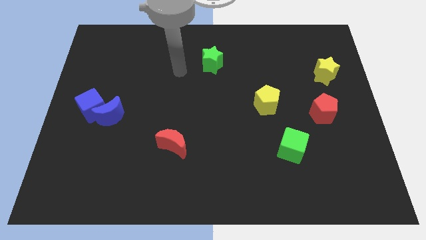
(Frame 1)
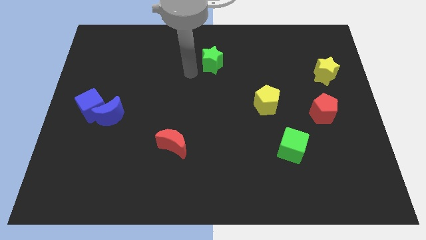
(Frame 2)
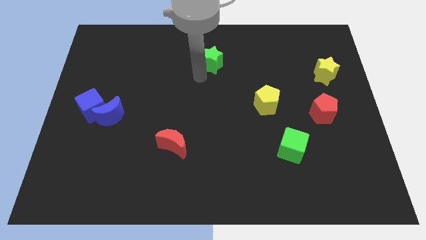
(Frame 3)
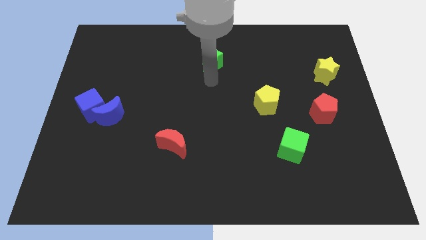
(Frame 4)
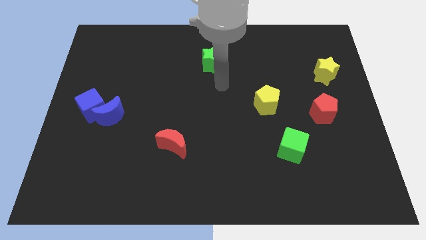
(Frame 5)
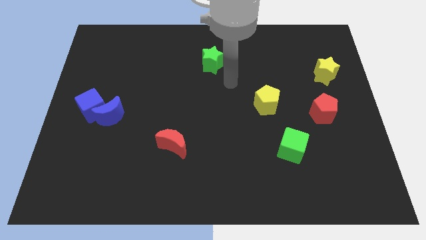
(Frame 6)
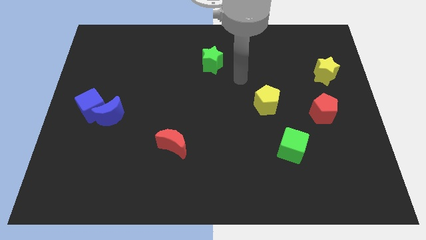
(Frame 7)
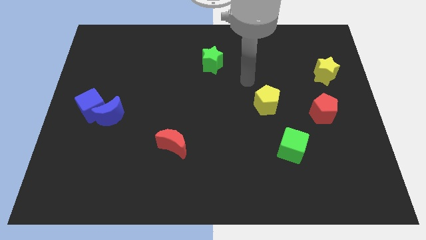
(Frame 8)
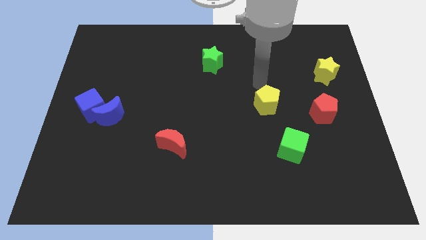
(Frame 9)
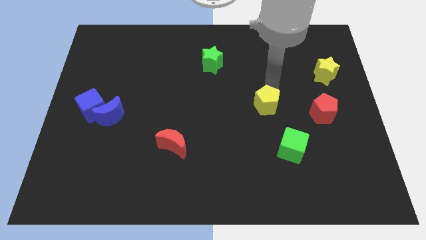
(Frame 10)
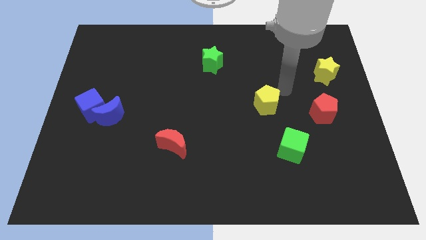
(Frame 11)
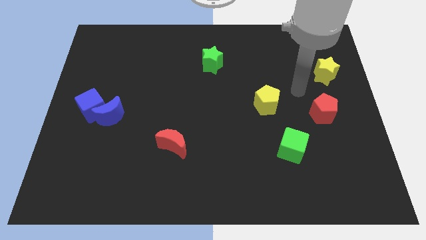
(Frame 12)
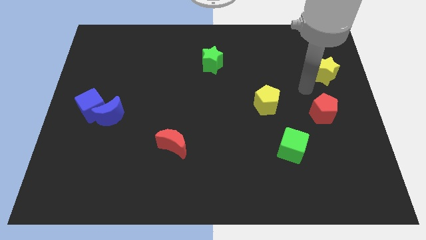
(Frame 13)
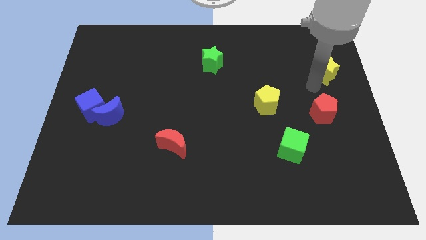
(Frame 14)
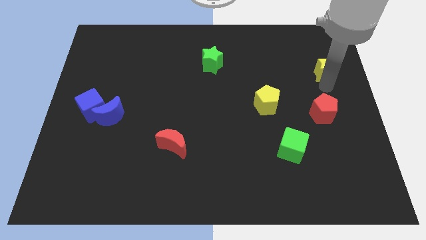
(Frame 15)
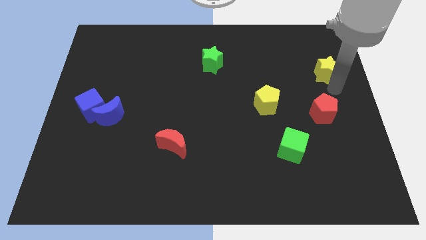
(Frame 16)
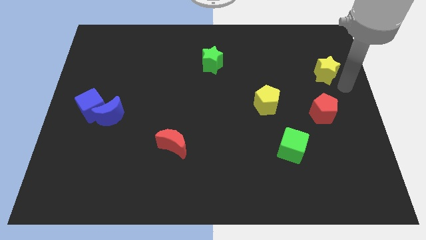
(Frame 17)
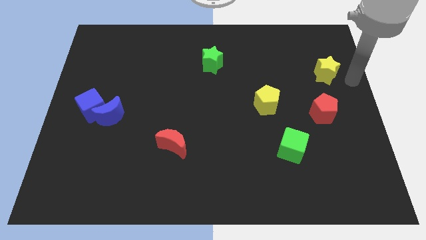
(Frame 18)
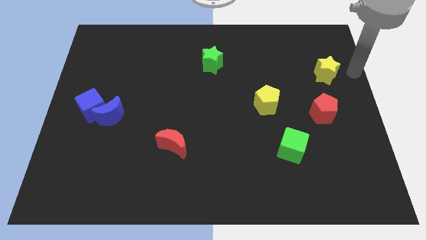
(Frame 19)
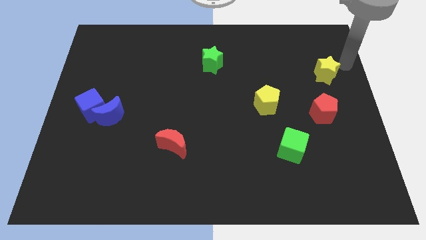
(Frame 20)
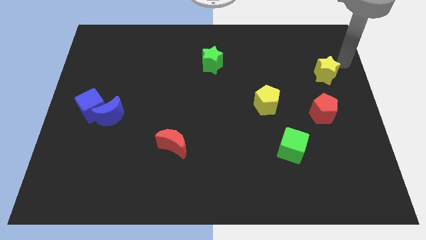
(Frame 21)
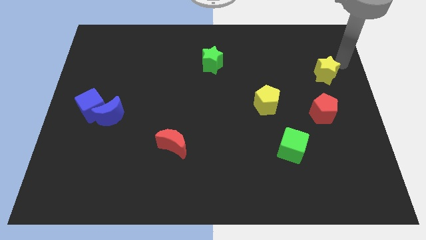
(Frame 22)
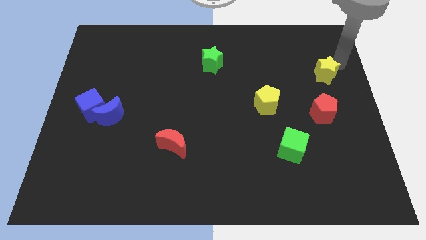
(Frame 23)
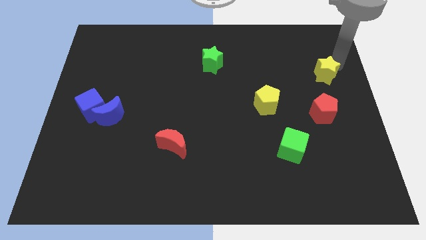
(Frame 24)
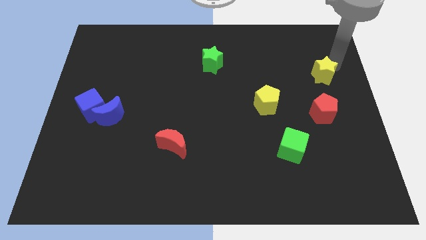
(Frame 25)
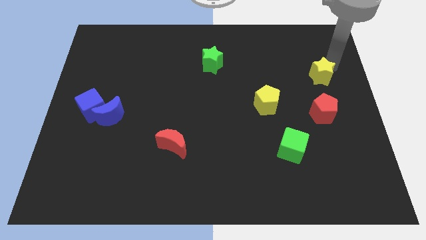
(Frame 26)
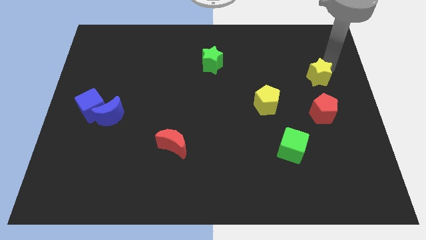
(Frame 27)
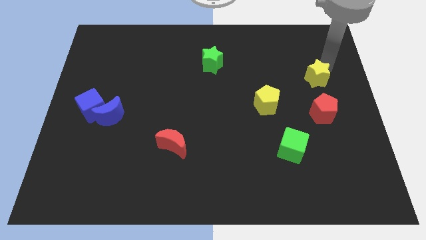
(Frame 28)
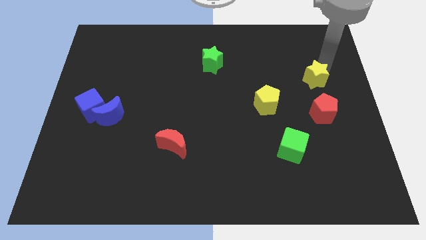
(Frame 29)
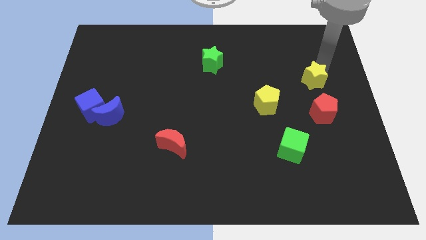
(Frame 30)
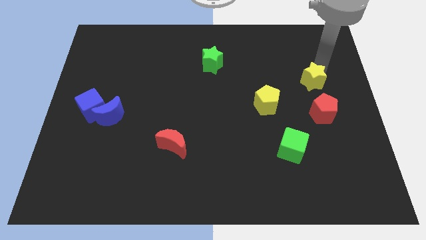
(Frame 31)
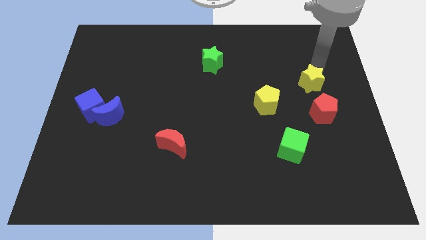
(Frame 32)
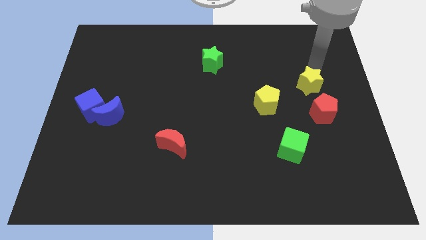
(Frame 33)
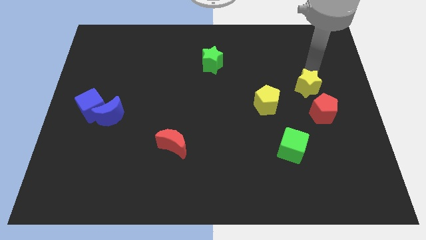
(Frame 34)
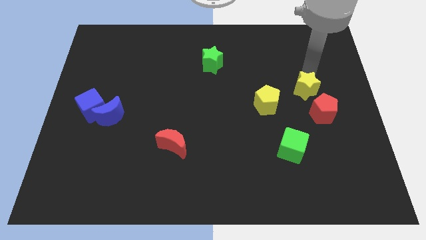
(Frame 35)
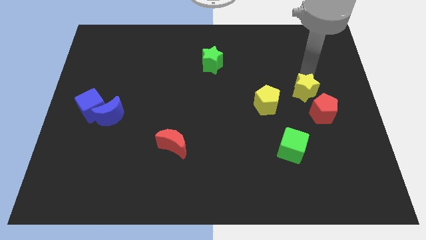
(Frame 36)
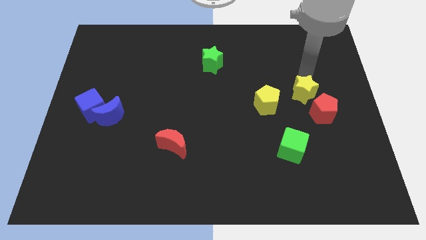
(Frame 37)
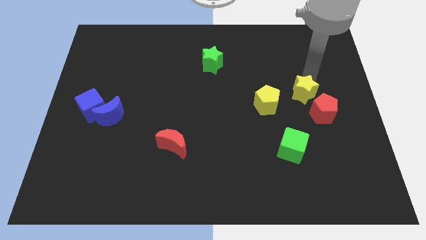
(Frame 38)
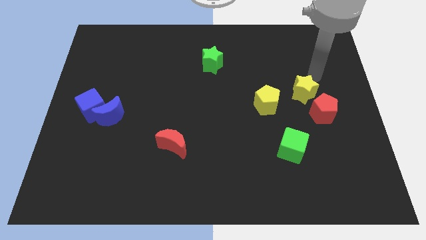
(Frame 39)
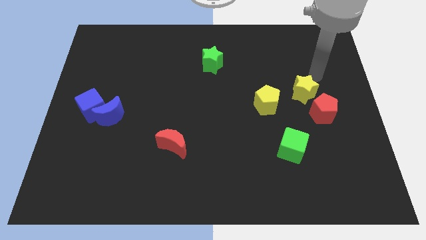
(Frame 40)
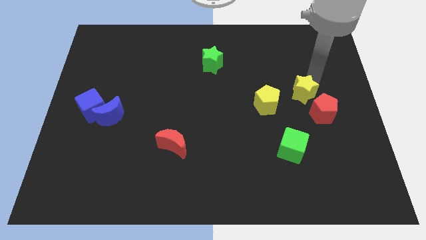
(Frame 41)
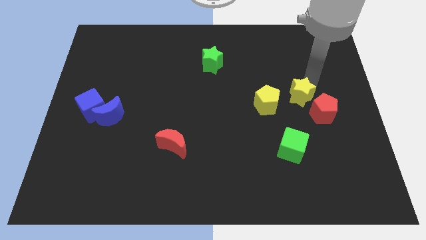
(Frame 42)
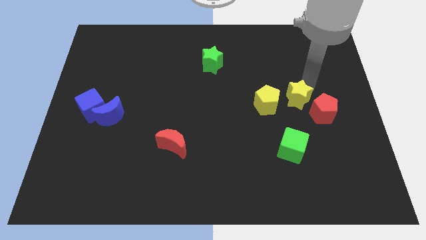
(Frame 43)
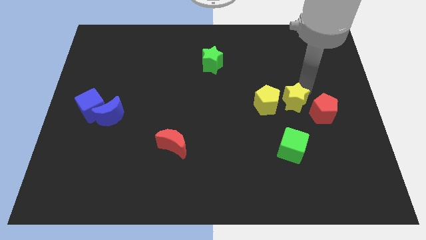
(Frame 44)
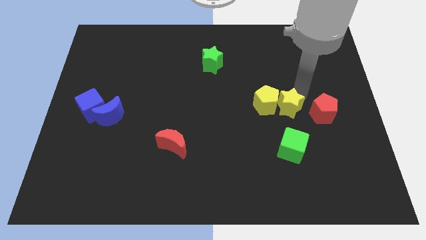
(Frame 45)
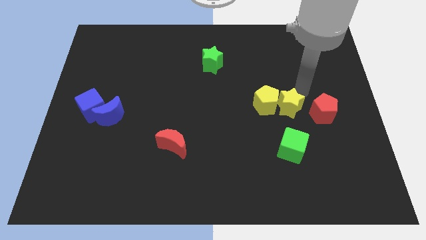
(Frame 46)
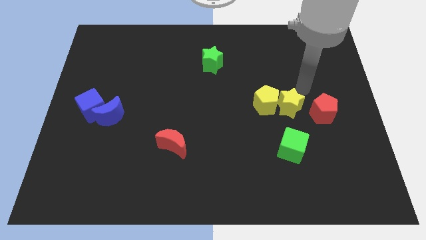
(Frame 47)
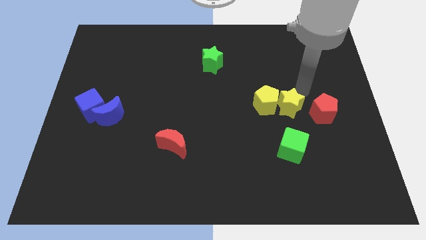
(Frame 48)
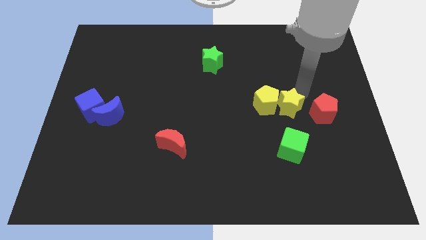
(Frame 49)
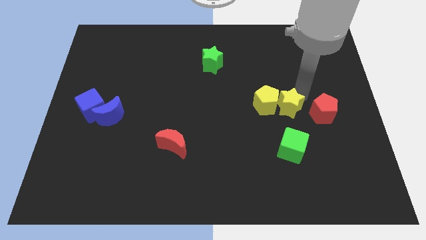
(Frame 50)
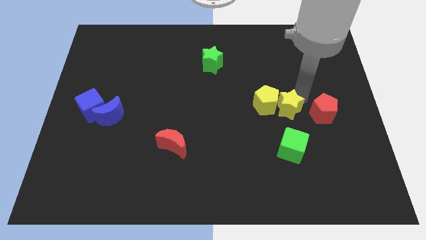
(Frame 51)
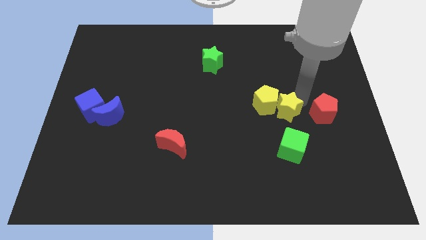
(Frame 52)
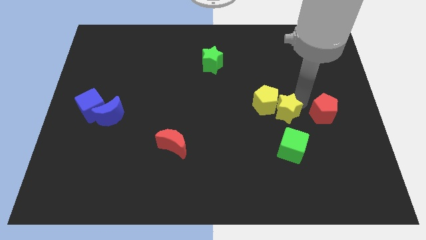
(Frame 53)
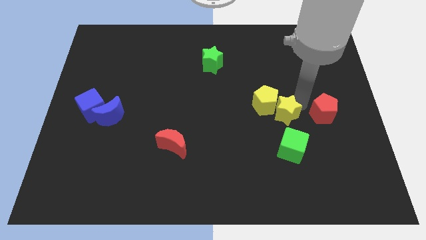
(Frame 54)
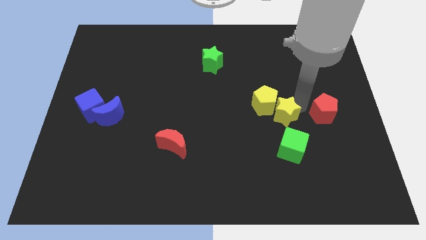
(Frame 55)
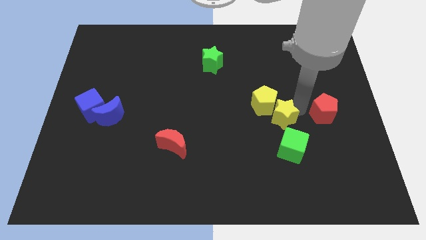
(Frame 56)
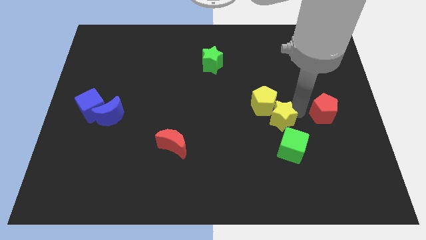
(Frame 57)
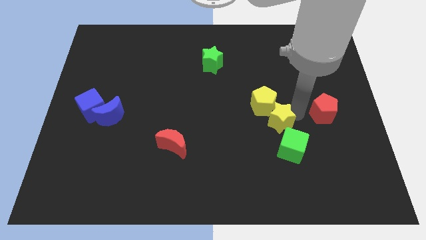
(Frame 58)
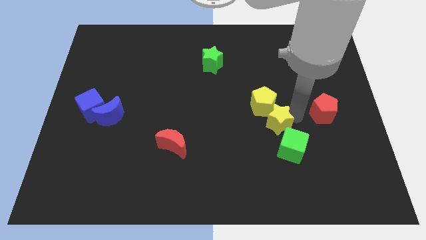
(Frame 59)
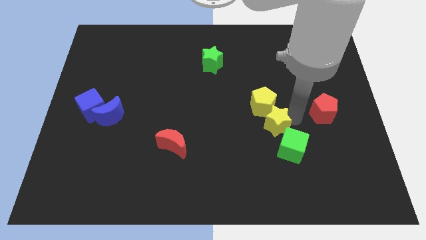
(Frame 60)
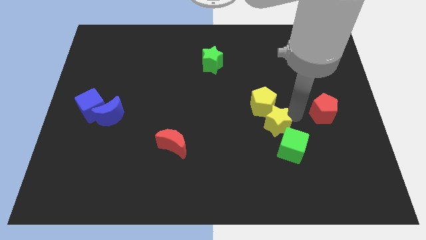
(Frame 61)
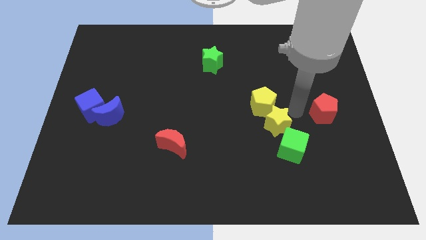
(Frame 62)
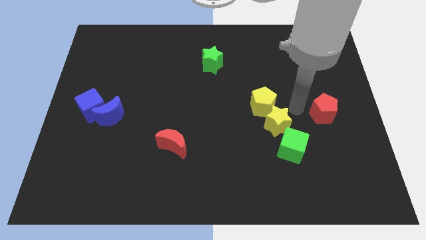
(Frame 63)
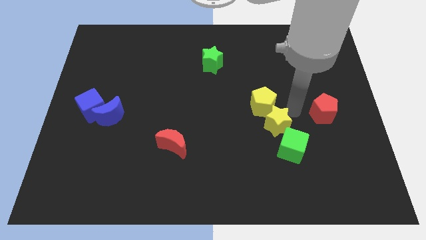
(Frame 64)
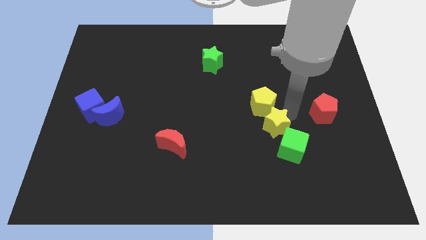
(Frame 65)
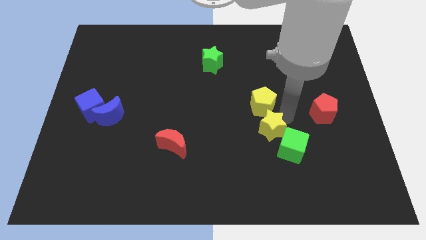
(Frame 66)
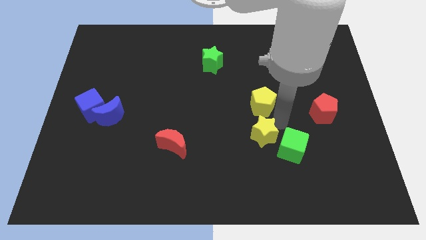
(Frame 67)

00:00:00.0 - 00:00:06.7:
move the yellow star to the left side of the green cube

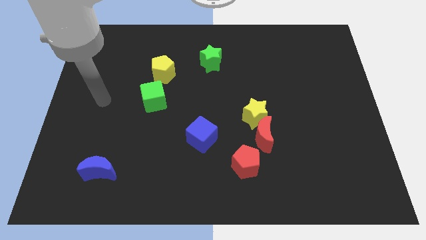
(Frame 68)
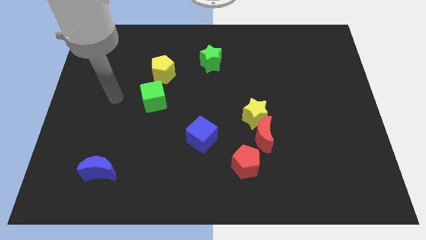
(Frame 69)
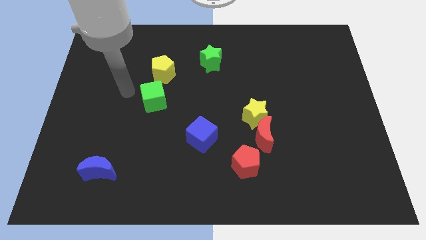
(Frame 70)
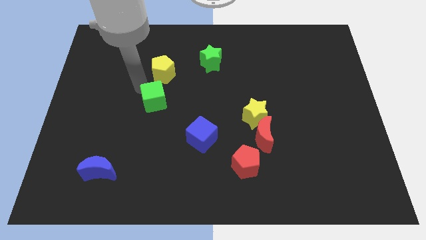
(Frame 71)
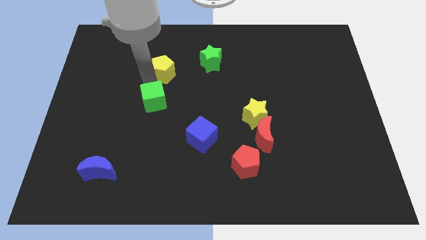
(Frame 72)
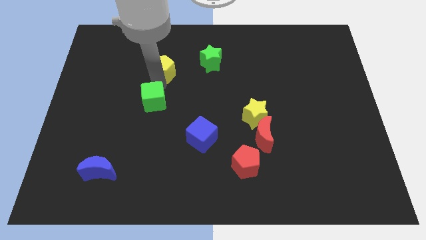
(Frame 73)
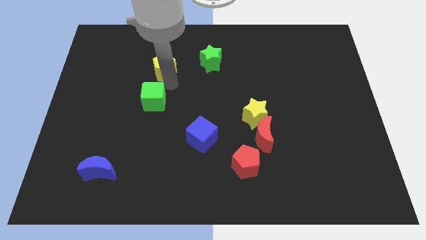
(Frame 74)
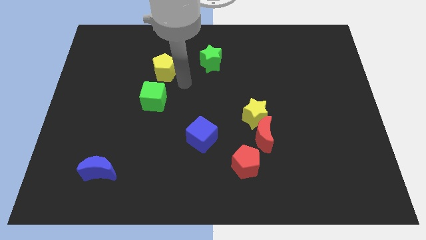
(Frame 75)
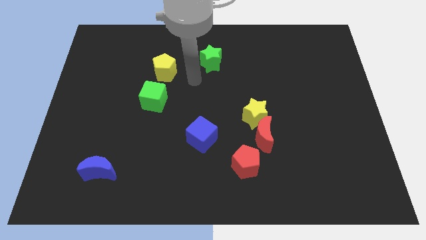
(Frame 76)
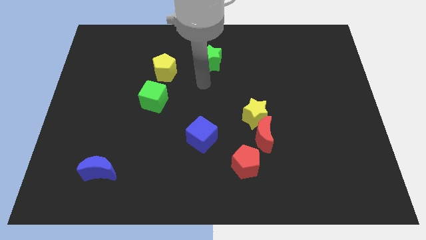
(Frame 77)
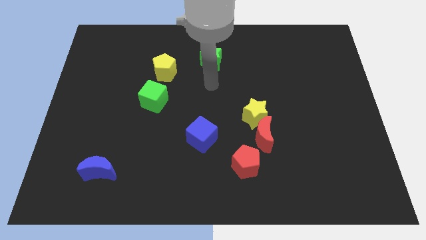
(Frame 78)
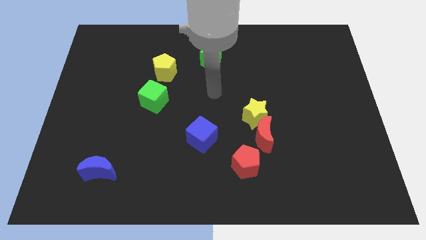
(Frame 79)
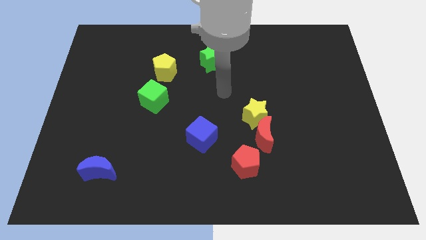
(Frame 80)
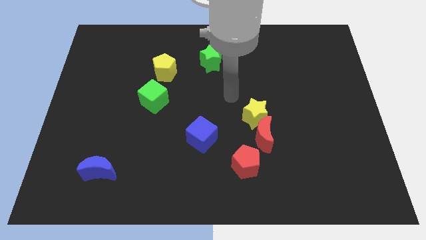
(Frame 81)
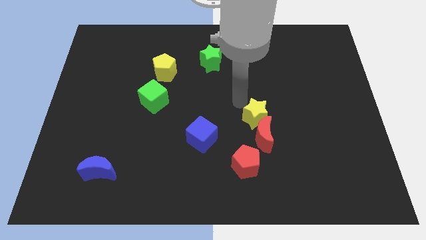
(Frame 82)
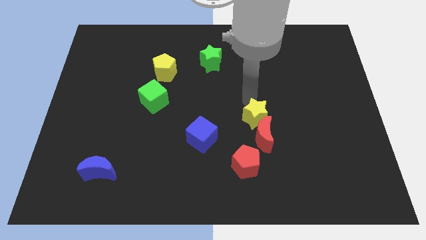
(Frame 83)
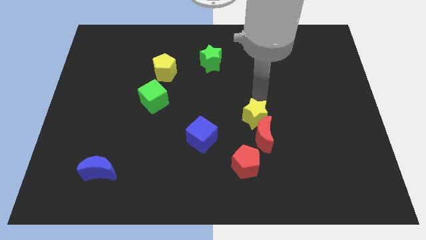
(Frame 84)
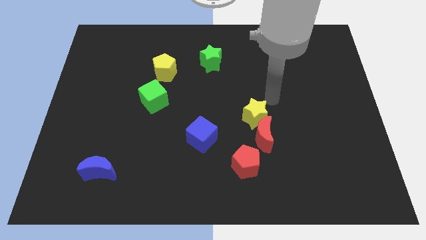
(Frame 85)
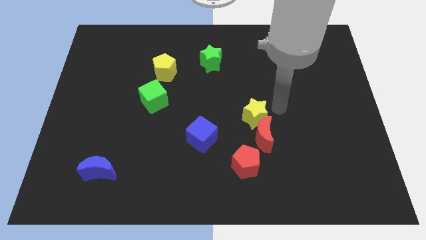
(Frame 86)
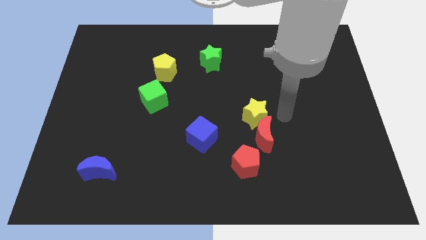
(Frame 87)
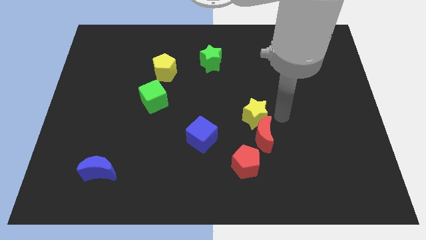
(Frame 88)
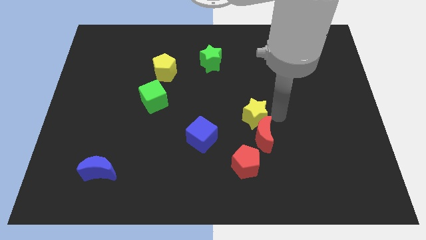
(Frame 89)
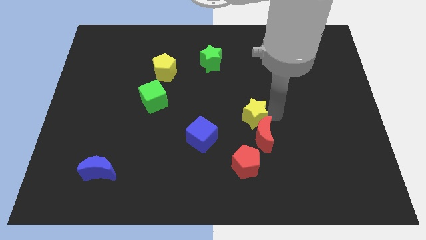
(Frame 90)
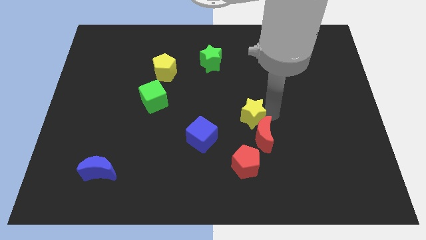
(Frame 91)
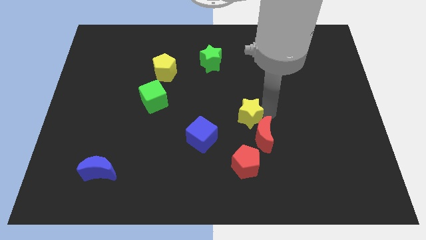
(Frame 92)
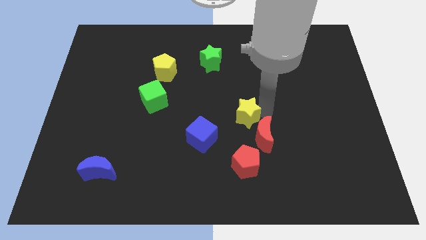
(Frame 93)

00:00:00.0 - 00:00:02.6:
move the yellow star to the top right of the blue cube
